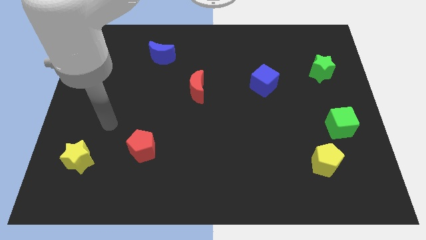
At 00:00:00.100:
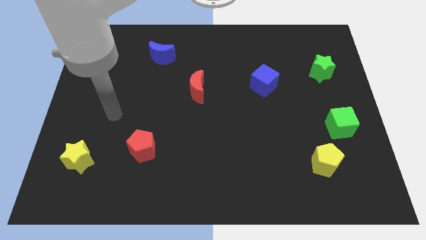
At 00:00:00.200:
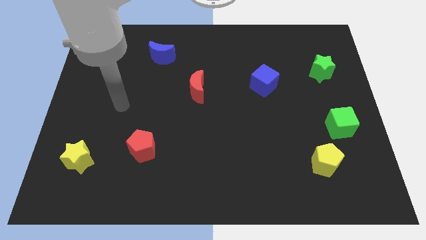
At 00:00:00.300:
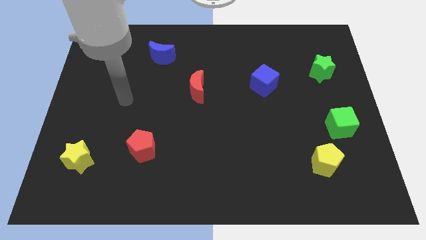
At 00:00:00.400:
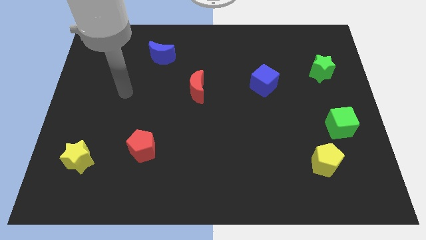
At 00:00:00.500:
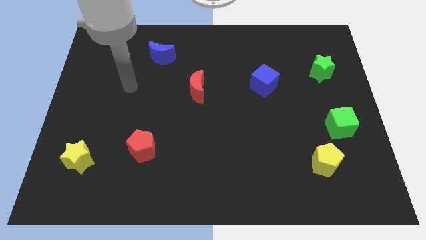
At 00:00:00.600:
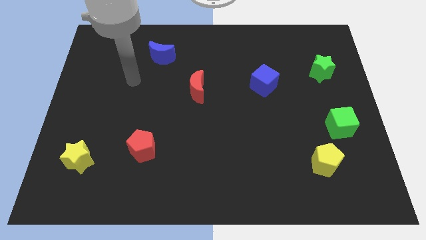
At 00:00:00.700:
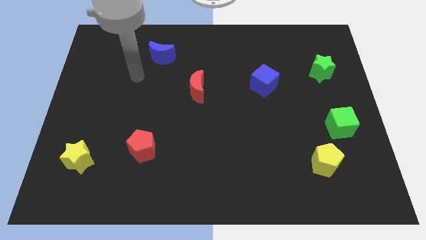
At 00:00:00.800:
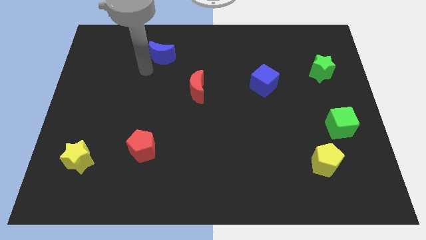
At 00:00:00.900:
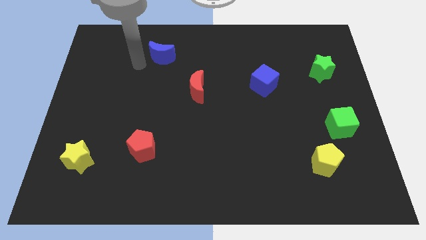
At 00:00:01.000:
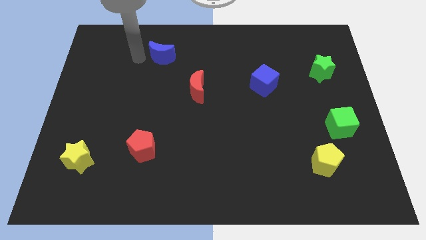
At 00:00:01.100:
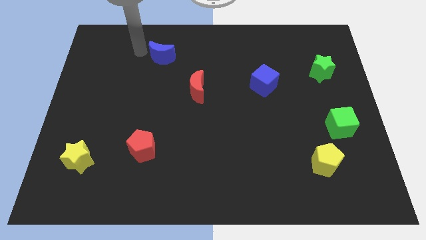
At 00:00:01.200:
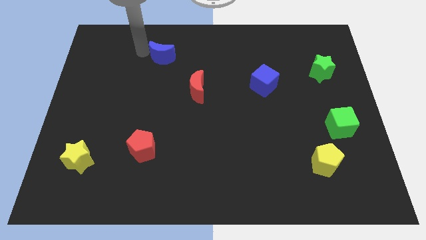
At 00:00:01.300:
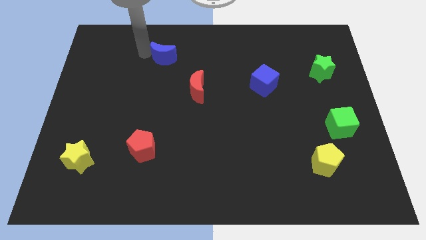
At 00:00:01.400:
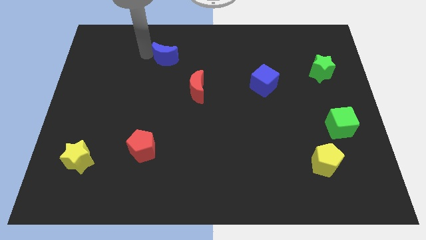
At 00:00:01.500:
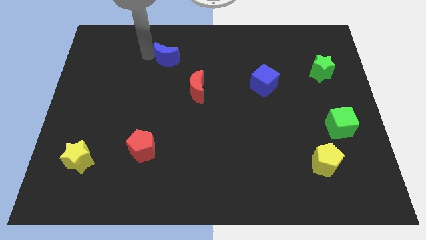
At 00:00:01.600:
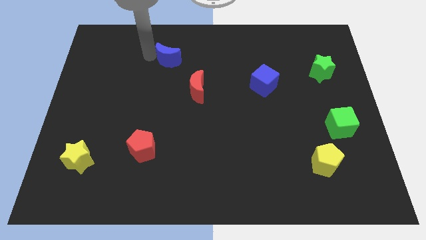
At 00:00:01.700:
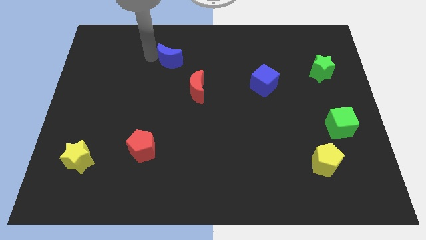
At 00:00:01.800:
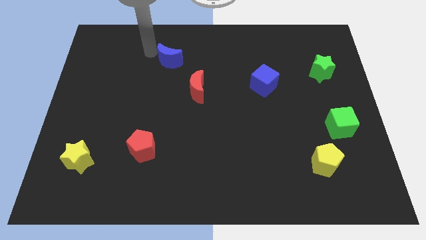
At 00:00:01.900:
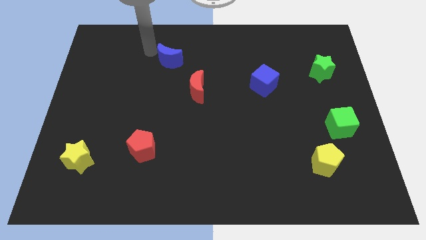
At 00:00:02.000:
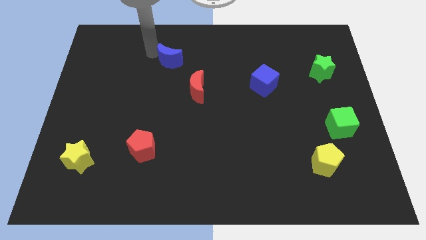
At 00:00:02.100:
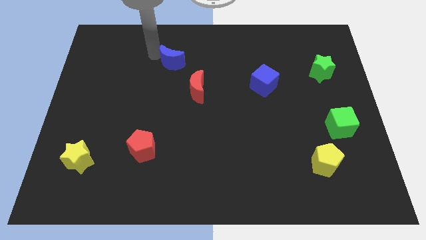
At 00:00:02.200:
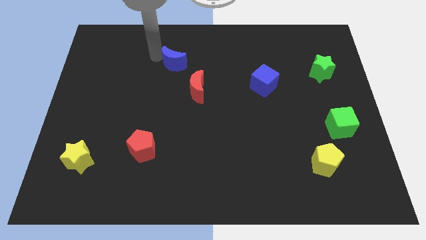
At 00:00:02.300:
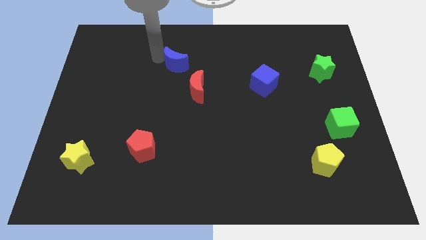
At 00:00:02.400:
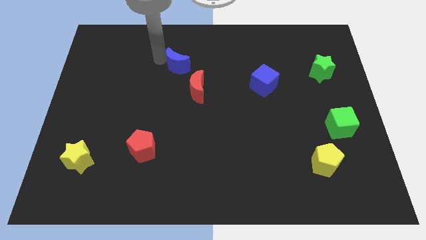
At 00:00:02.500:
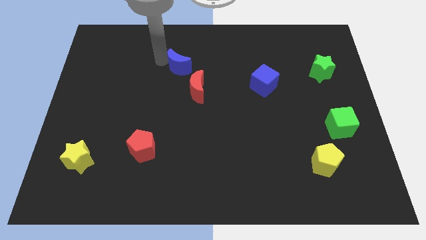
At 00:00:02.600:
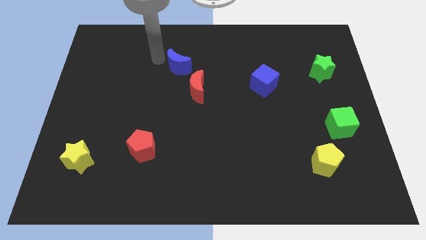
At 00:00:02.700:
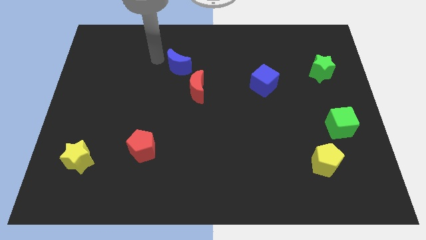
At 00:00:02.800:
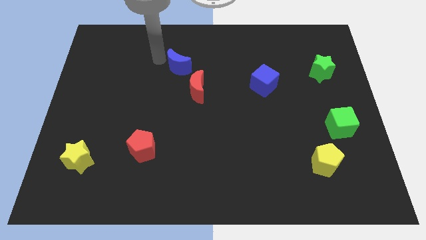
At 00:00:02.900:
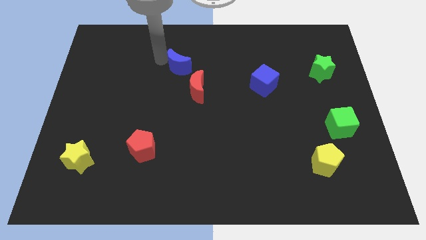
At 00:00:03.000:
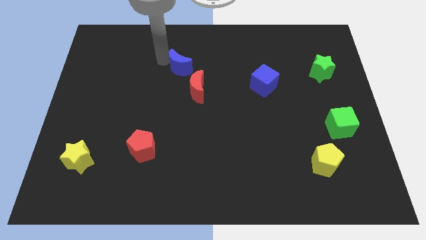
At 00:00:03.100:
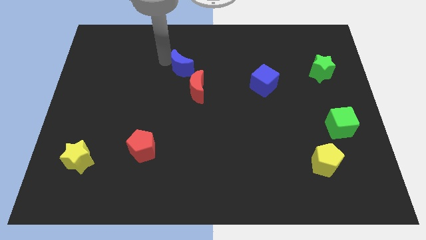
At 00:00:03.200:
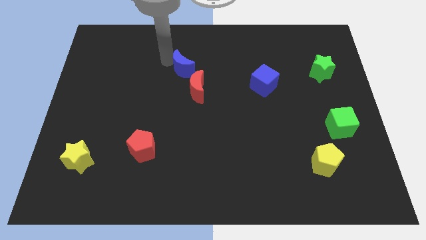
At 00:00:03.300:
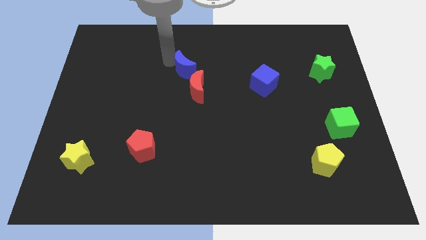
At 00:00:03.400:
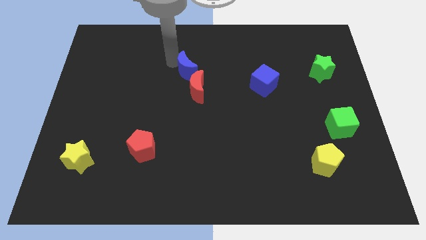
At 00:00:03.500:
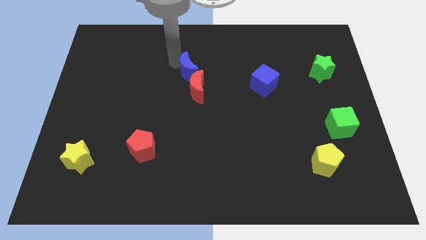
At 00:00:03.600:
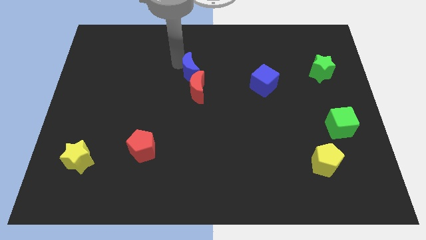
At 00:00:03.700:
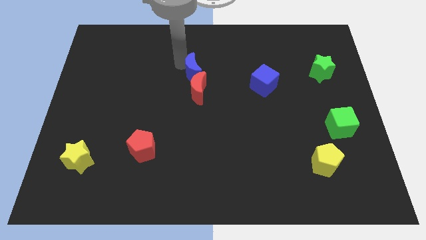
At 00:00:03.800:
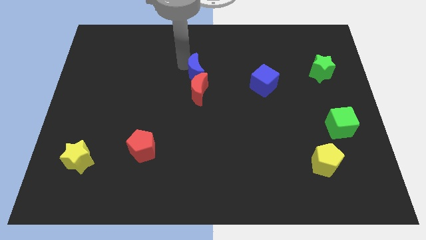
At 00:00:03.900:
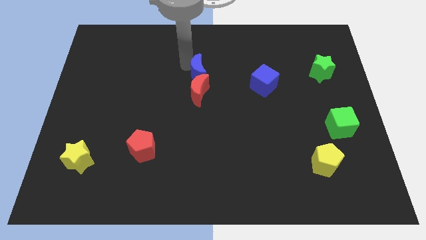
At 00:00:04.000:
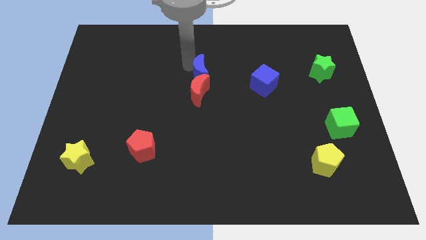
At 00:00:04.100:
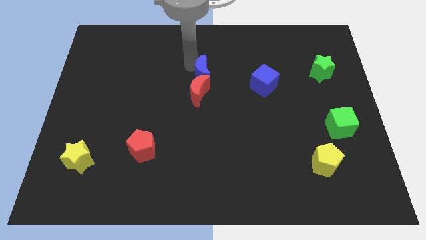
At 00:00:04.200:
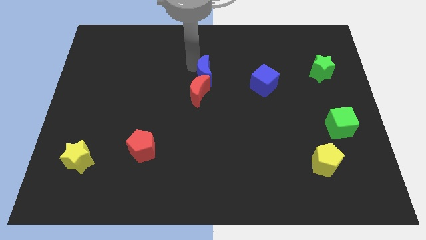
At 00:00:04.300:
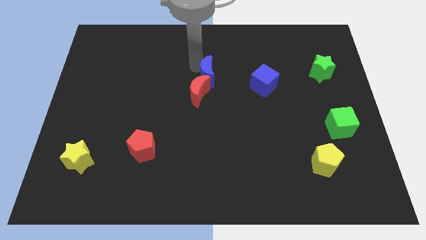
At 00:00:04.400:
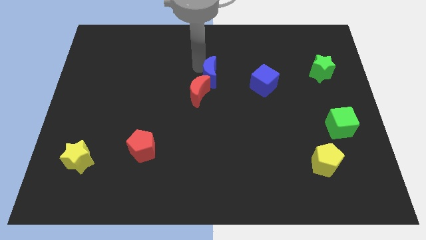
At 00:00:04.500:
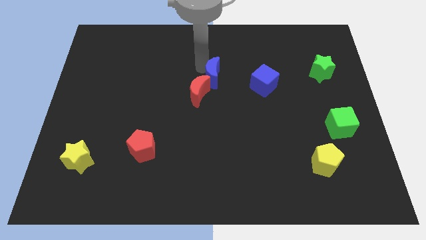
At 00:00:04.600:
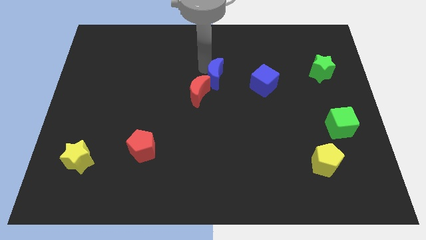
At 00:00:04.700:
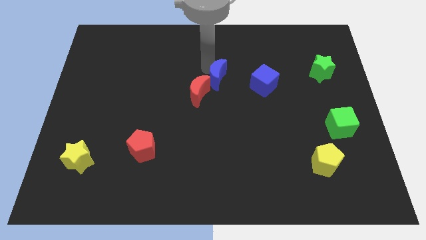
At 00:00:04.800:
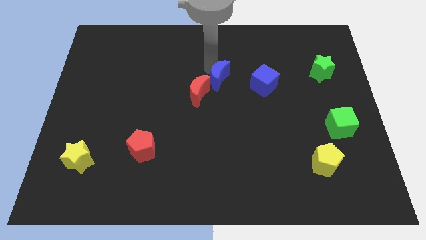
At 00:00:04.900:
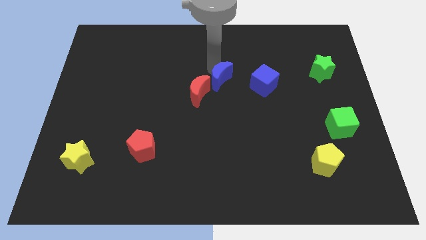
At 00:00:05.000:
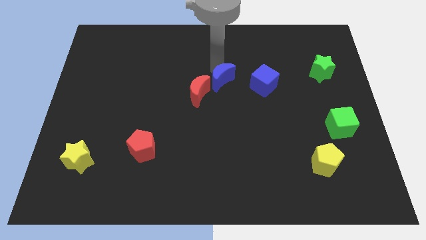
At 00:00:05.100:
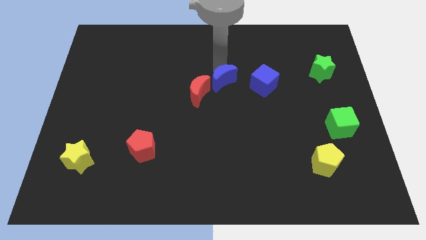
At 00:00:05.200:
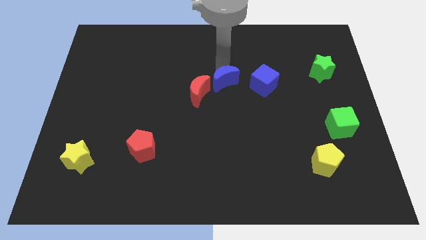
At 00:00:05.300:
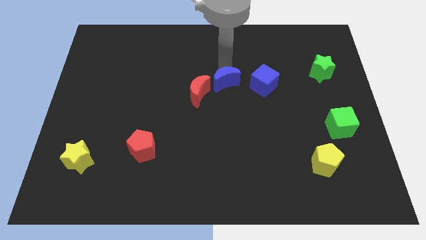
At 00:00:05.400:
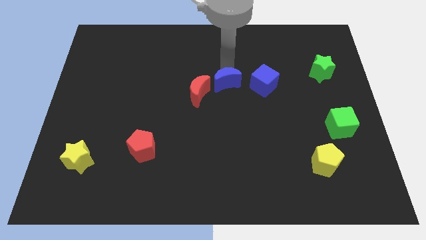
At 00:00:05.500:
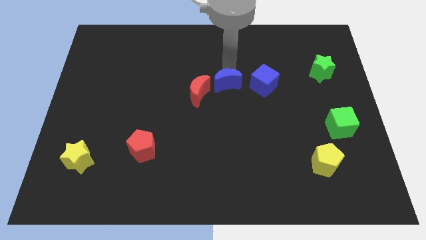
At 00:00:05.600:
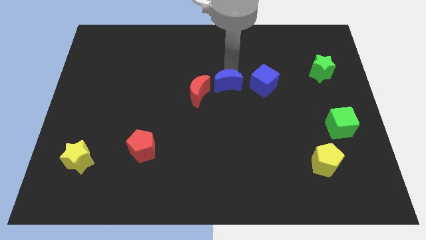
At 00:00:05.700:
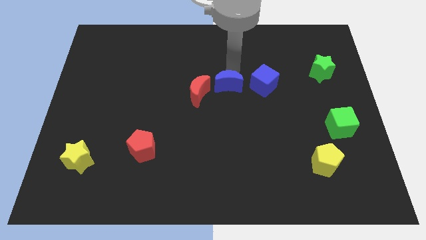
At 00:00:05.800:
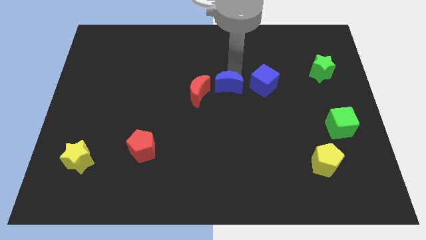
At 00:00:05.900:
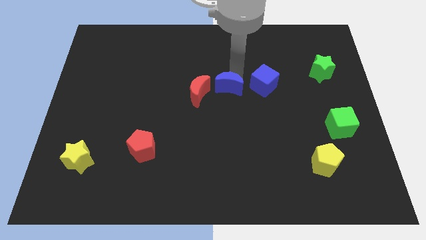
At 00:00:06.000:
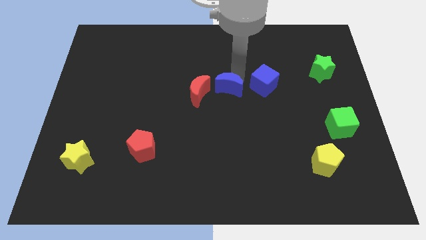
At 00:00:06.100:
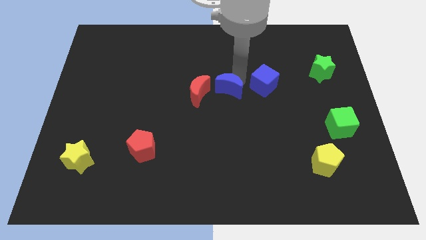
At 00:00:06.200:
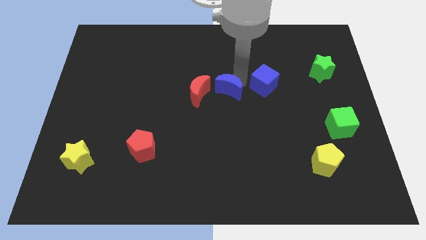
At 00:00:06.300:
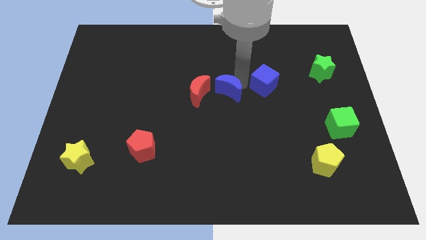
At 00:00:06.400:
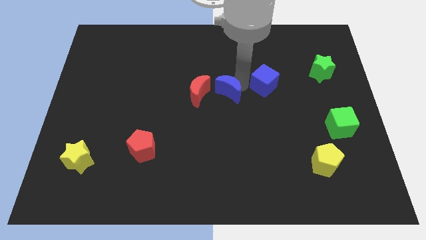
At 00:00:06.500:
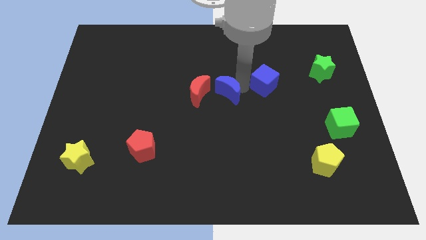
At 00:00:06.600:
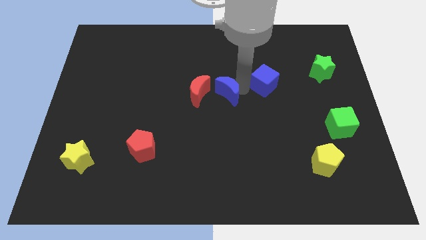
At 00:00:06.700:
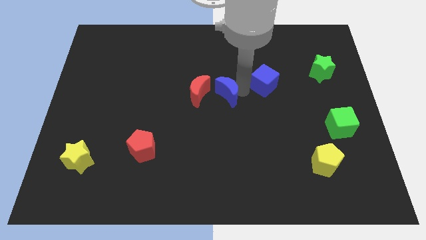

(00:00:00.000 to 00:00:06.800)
put the blue moon diagonally down and to the right of the red moon

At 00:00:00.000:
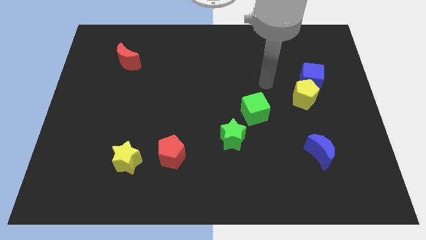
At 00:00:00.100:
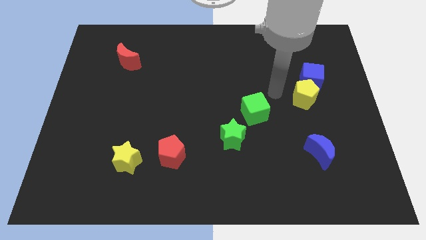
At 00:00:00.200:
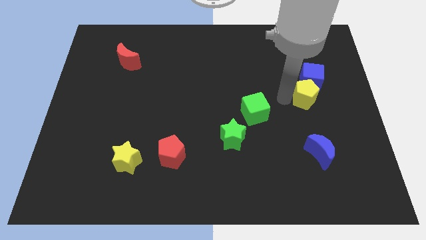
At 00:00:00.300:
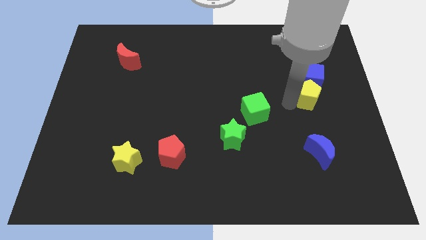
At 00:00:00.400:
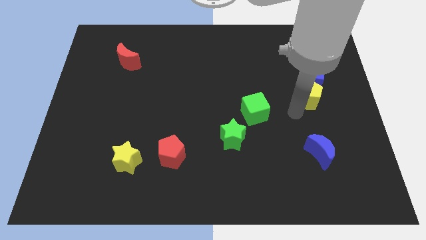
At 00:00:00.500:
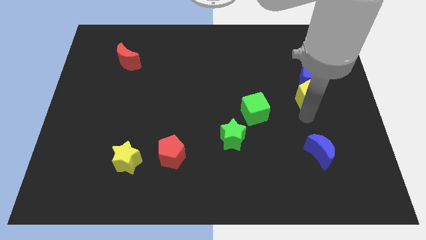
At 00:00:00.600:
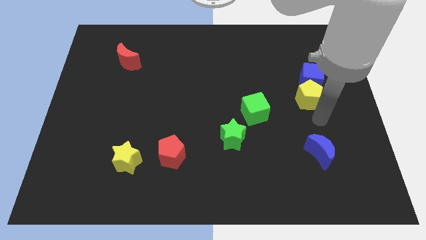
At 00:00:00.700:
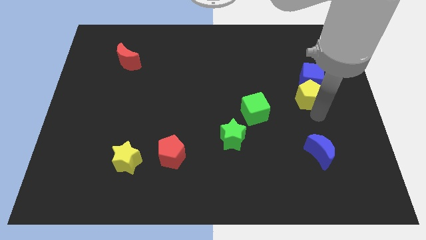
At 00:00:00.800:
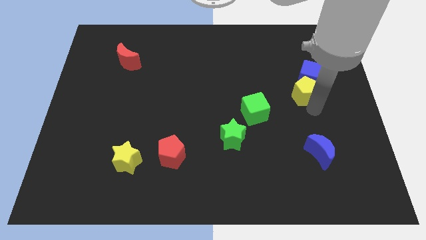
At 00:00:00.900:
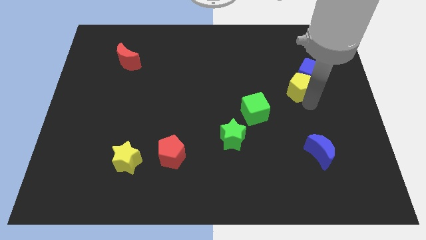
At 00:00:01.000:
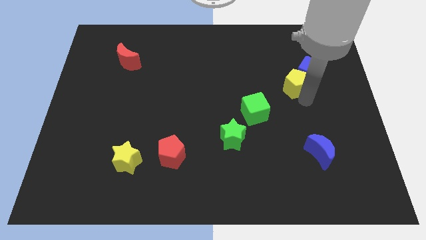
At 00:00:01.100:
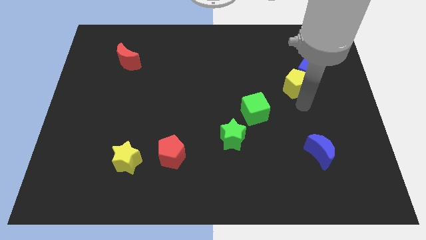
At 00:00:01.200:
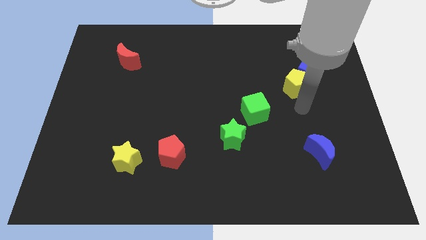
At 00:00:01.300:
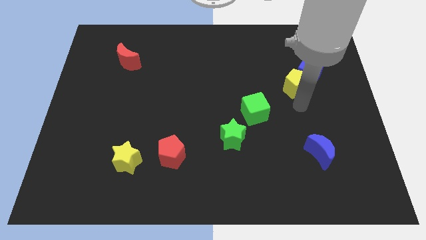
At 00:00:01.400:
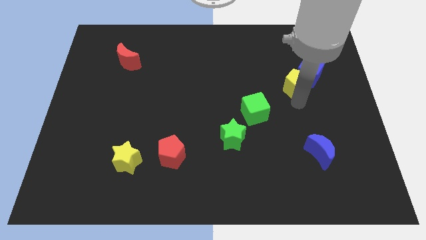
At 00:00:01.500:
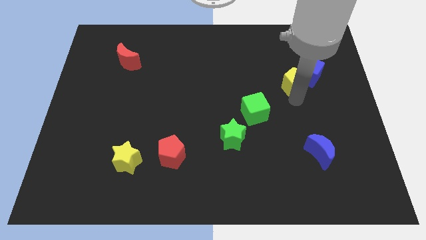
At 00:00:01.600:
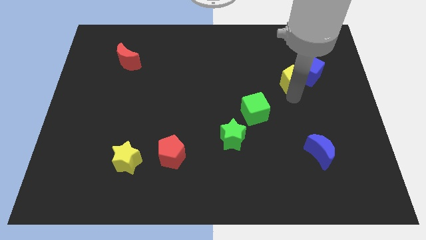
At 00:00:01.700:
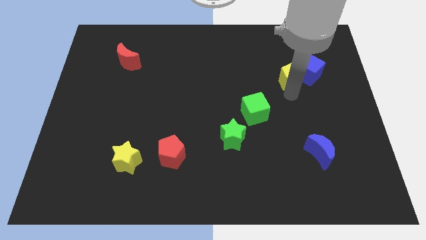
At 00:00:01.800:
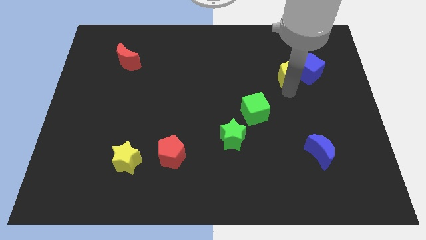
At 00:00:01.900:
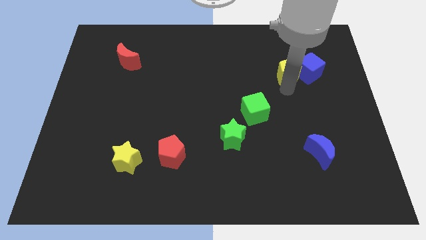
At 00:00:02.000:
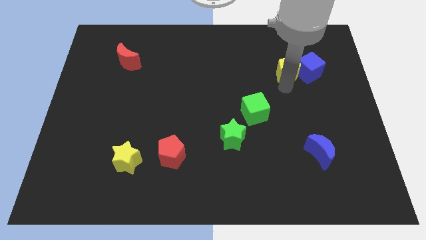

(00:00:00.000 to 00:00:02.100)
push the yellow pentagon to the top left of the blue cube
